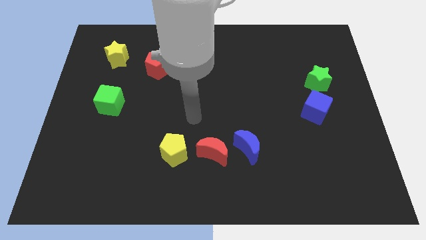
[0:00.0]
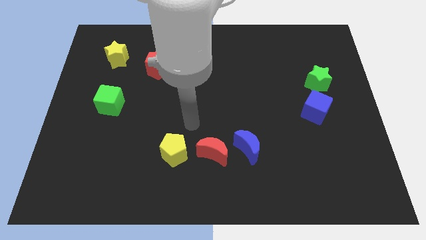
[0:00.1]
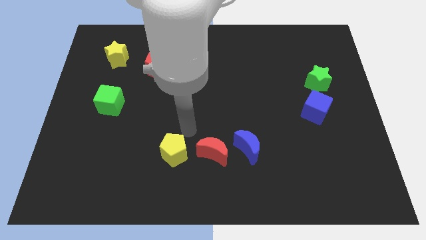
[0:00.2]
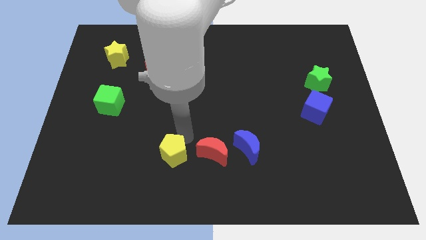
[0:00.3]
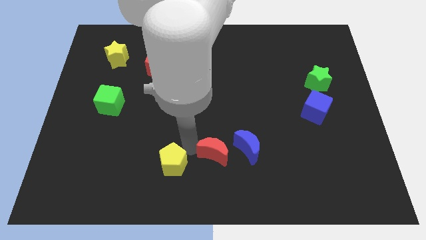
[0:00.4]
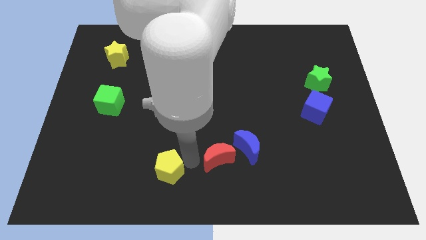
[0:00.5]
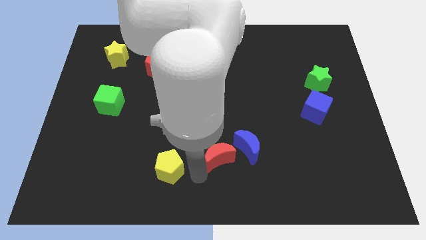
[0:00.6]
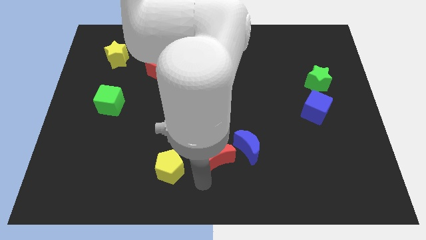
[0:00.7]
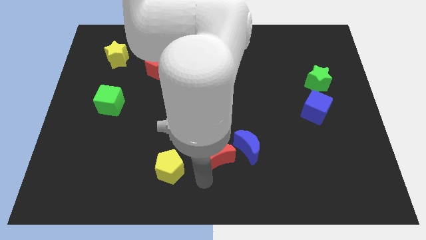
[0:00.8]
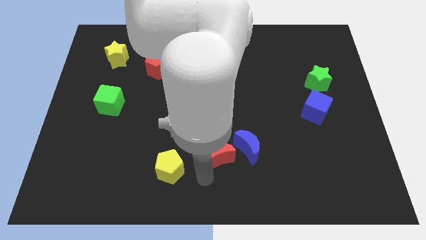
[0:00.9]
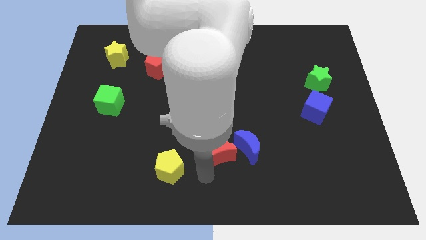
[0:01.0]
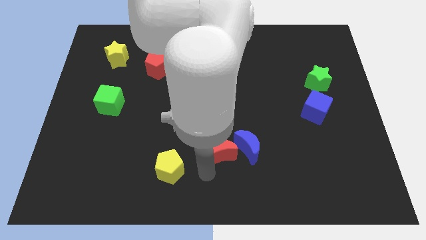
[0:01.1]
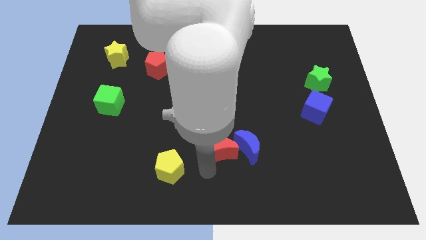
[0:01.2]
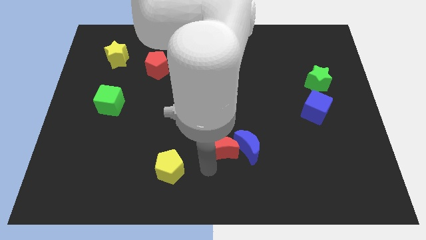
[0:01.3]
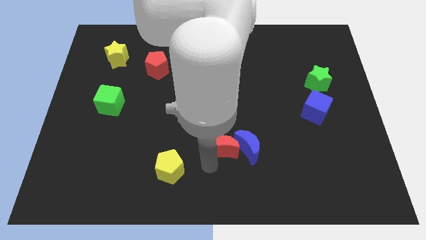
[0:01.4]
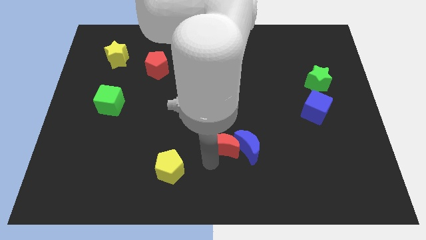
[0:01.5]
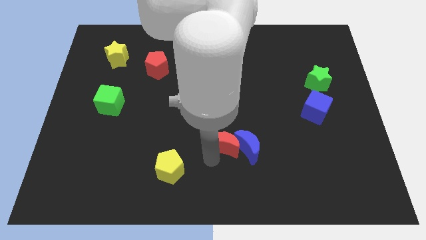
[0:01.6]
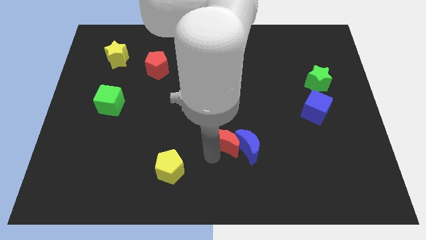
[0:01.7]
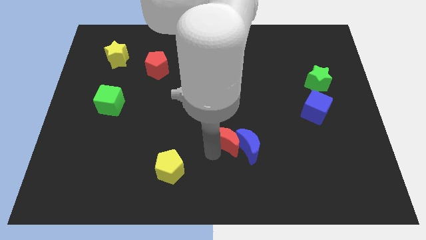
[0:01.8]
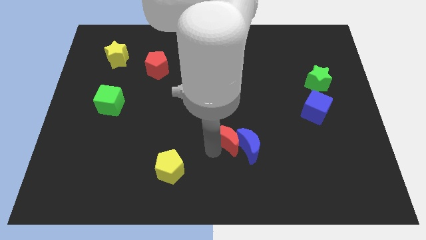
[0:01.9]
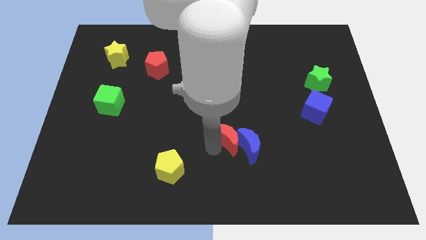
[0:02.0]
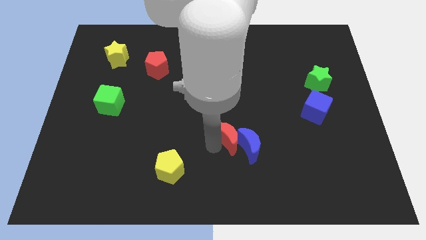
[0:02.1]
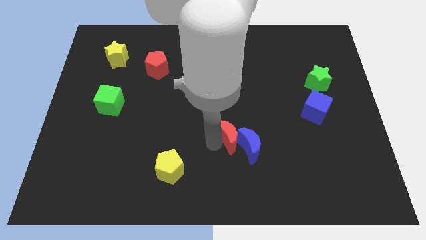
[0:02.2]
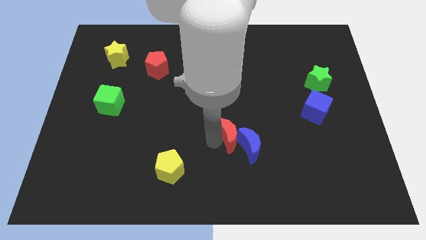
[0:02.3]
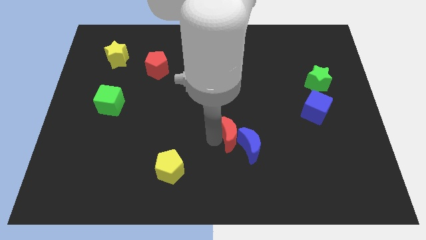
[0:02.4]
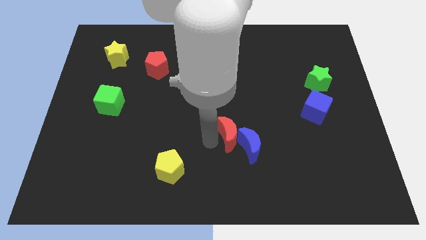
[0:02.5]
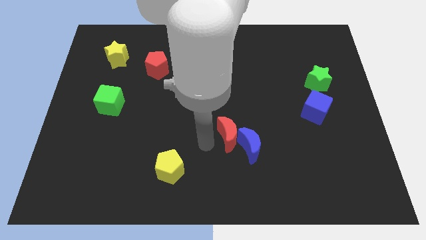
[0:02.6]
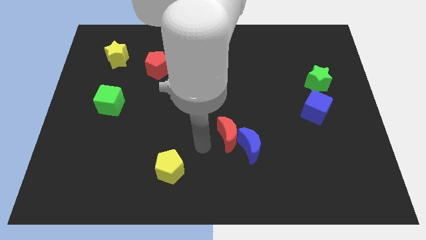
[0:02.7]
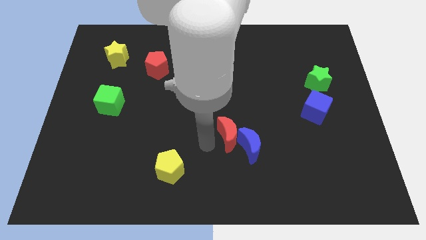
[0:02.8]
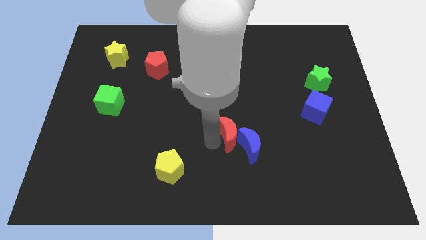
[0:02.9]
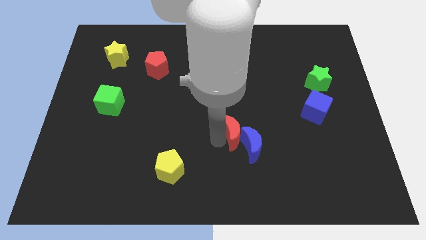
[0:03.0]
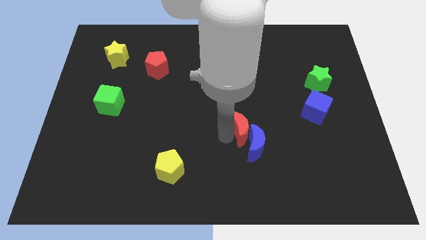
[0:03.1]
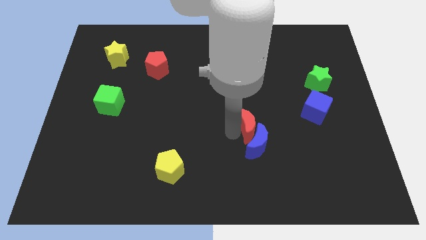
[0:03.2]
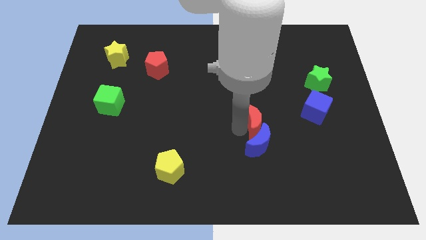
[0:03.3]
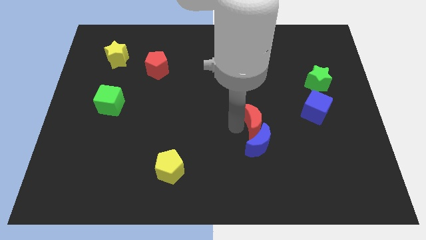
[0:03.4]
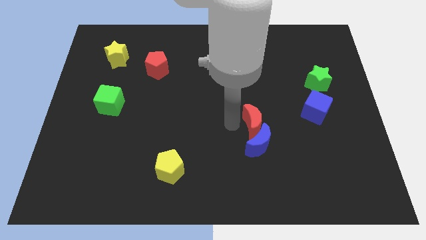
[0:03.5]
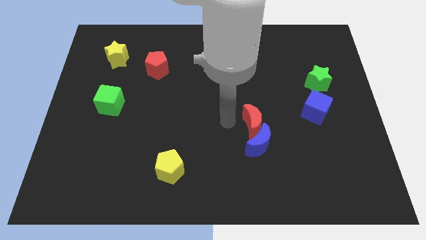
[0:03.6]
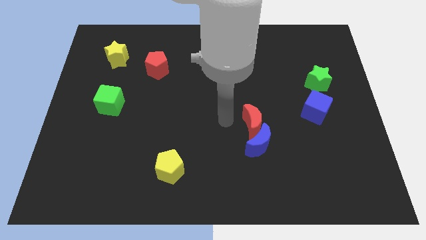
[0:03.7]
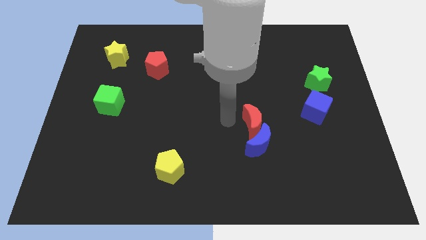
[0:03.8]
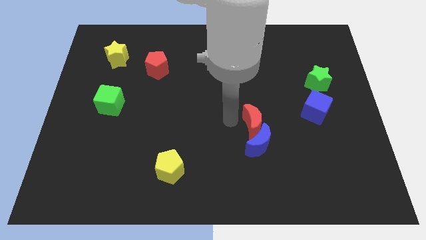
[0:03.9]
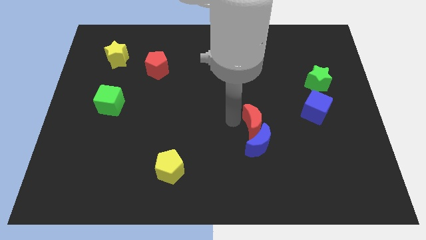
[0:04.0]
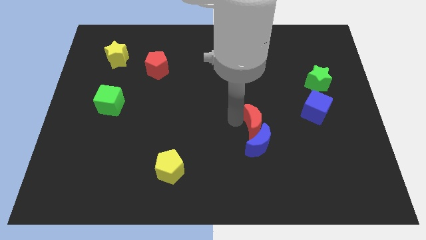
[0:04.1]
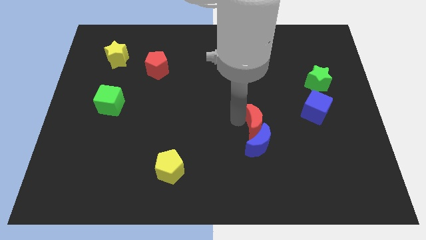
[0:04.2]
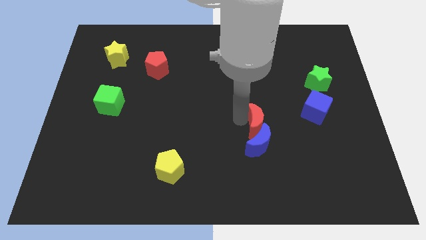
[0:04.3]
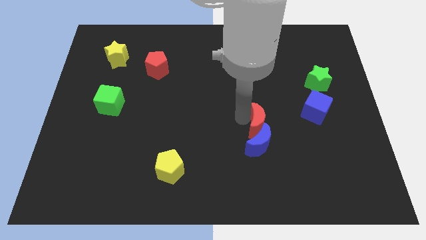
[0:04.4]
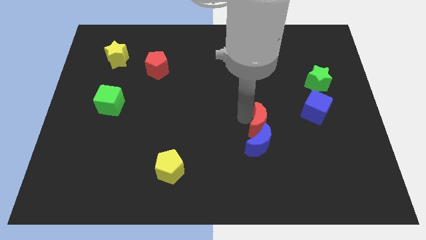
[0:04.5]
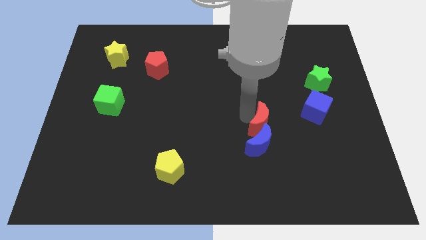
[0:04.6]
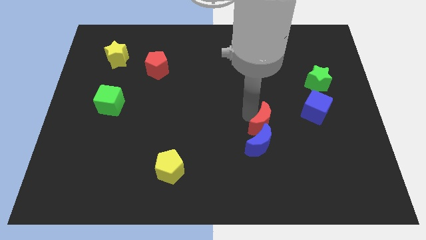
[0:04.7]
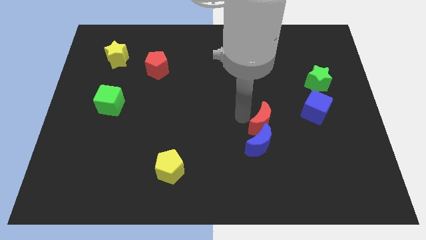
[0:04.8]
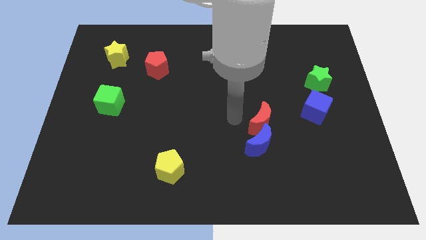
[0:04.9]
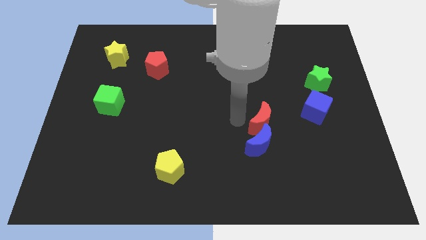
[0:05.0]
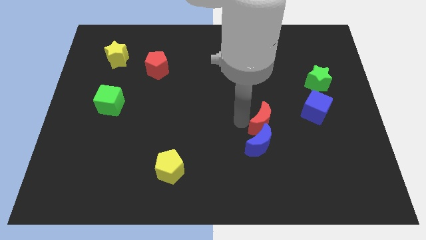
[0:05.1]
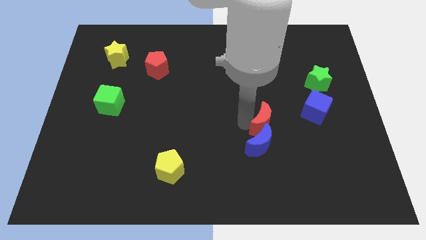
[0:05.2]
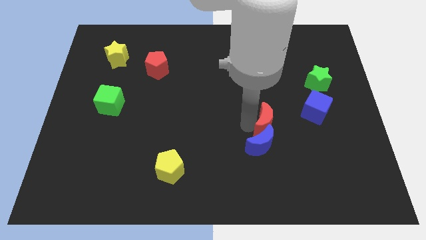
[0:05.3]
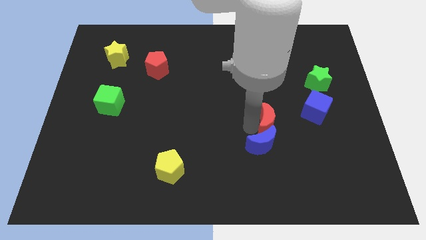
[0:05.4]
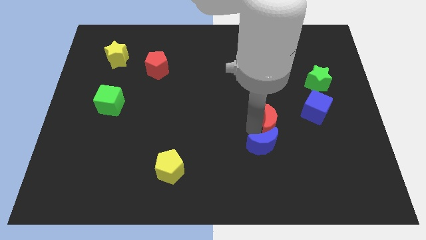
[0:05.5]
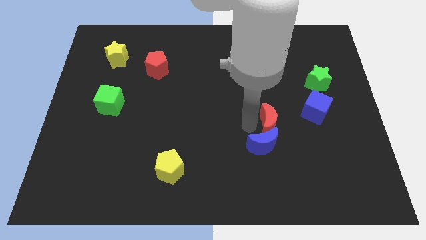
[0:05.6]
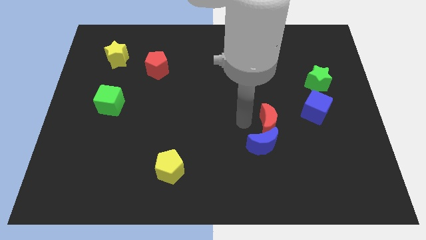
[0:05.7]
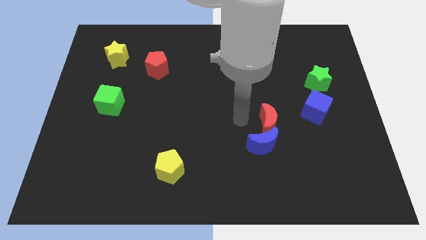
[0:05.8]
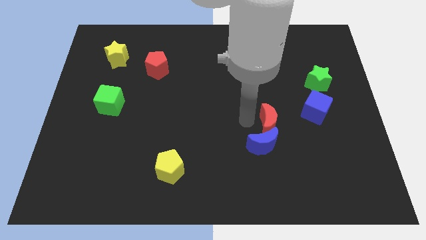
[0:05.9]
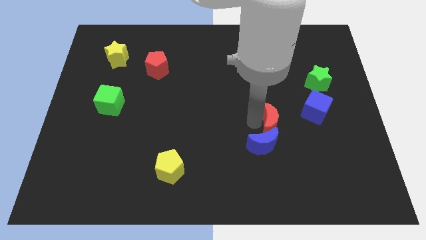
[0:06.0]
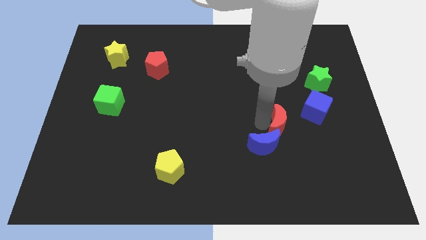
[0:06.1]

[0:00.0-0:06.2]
push the red moon to the bottom left side of the blue cube
